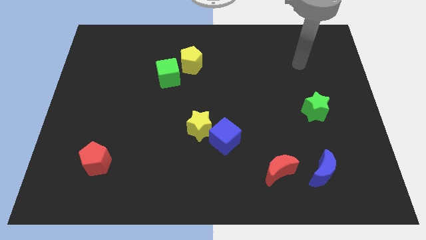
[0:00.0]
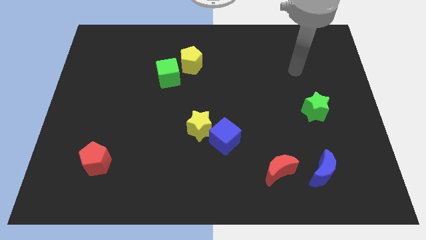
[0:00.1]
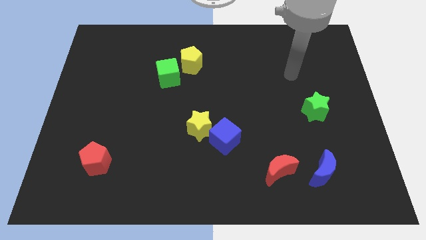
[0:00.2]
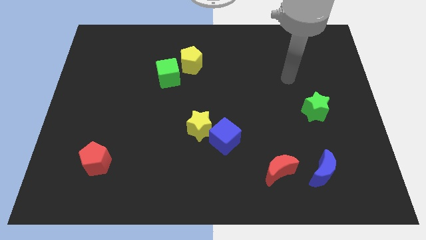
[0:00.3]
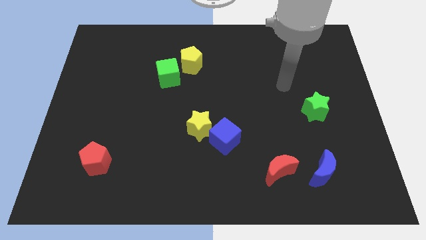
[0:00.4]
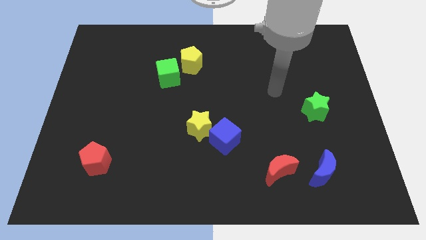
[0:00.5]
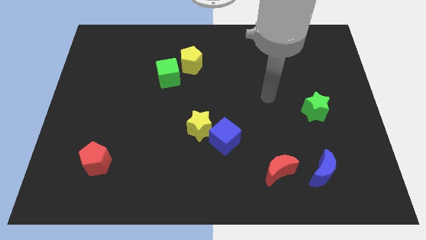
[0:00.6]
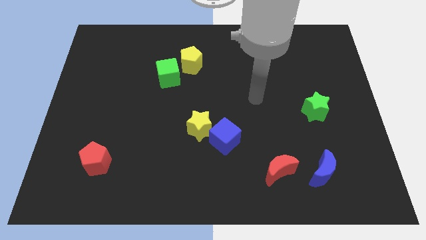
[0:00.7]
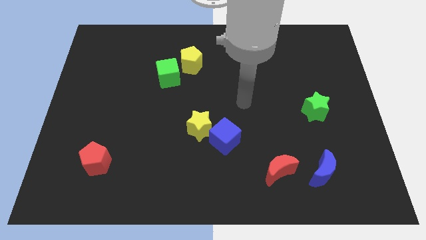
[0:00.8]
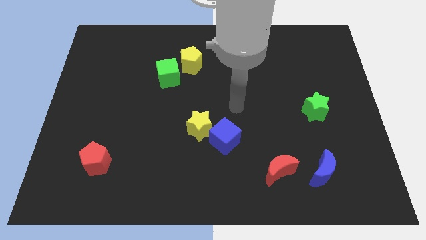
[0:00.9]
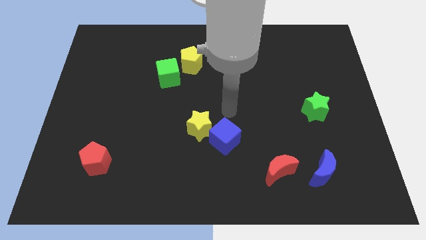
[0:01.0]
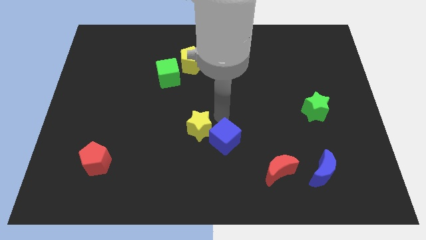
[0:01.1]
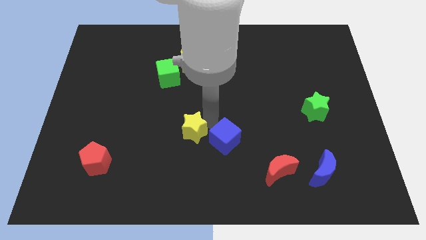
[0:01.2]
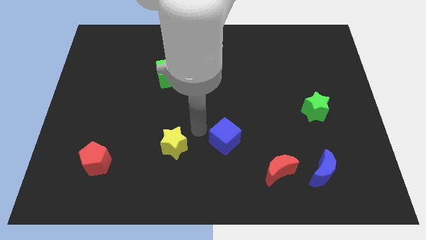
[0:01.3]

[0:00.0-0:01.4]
pull the blue cube apart from the yellow star

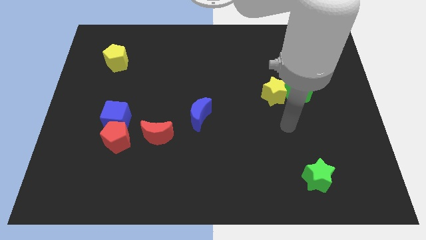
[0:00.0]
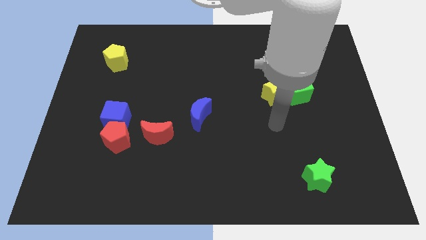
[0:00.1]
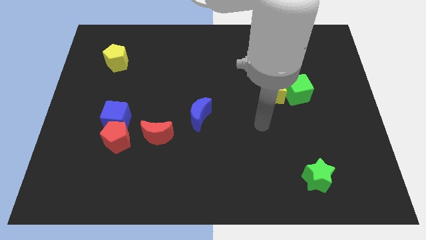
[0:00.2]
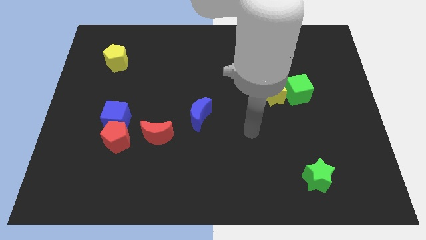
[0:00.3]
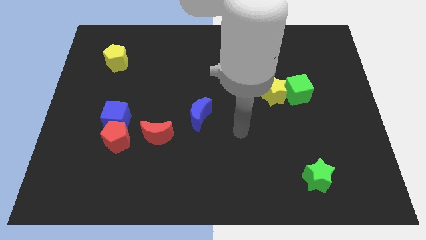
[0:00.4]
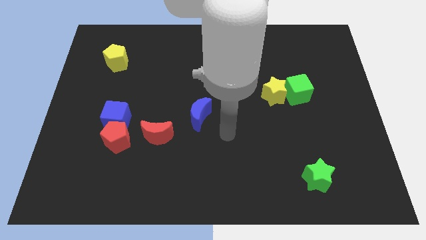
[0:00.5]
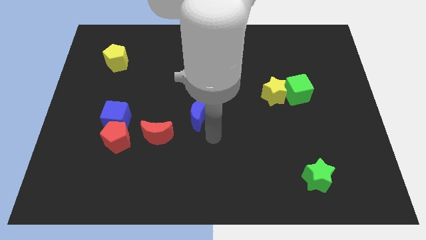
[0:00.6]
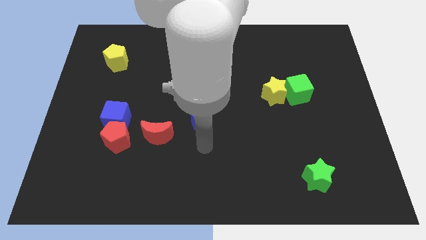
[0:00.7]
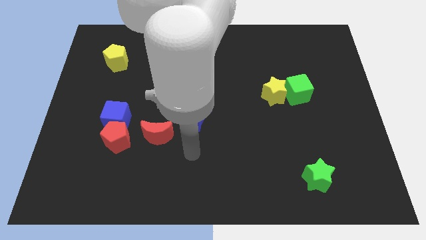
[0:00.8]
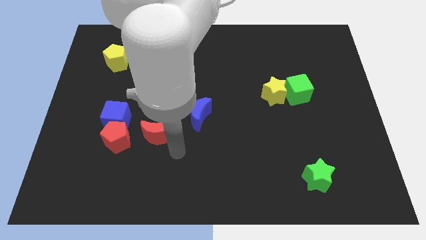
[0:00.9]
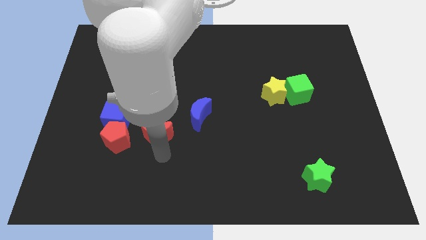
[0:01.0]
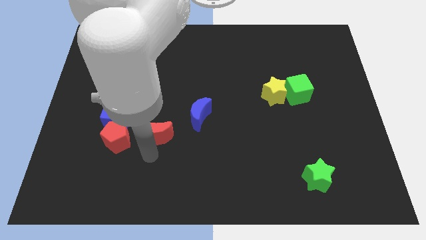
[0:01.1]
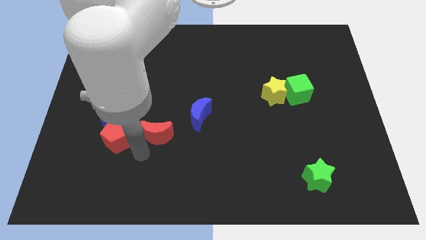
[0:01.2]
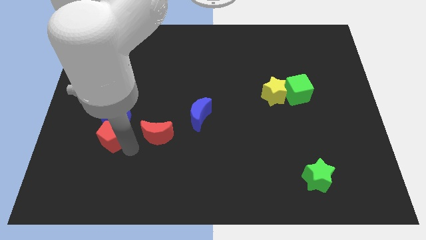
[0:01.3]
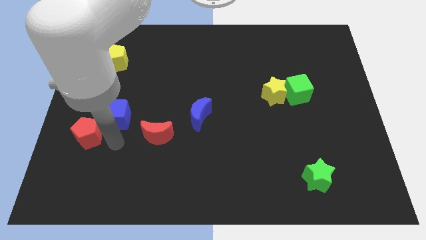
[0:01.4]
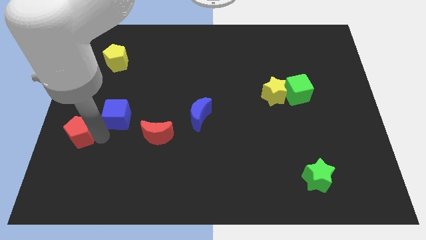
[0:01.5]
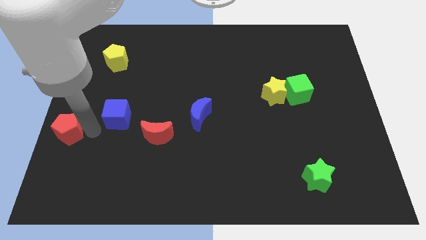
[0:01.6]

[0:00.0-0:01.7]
move the blue cube away from the red pentagon

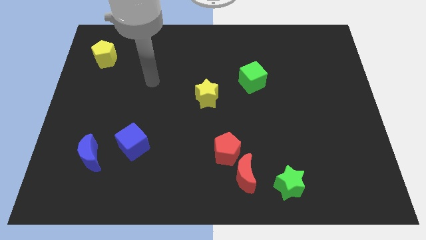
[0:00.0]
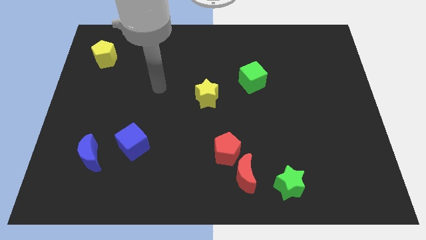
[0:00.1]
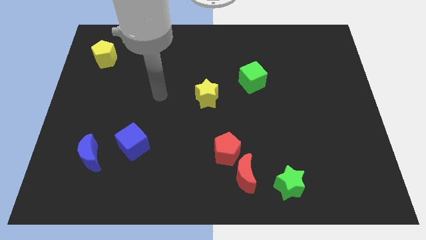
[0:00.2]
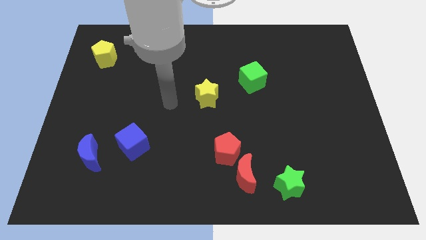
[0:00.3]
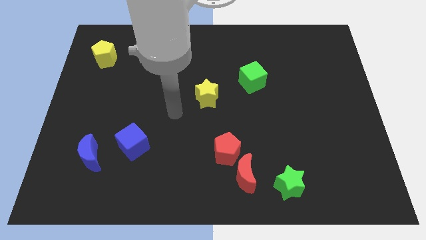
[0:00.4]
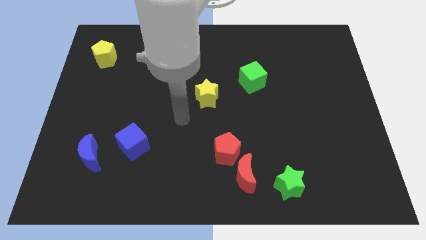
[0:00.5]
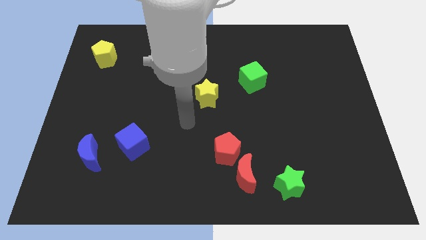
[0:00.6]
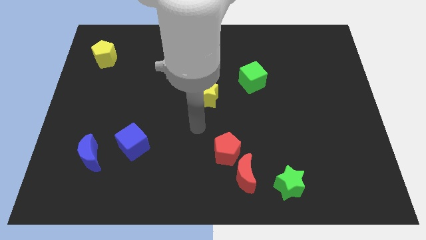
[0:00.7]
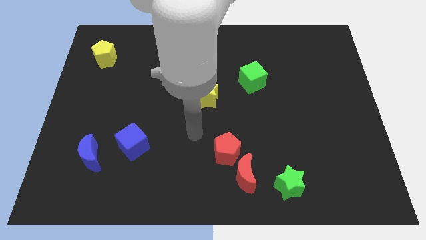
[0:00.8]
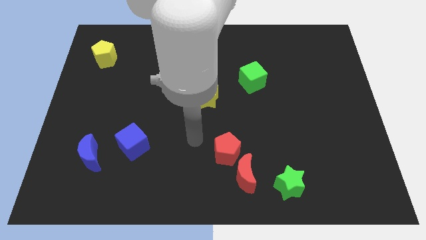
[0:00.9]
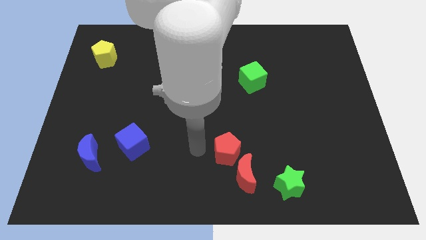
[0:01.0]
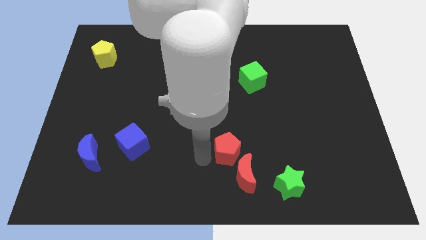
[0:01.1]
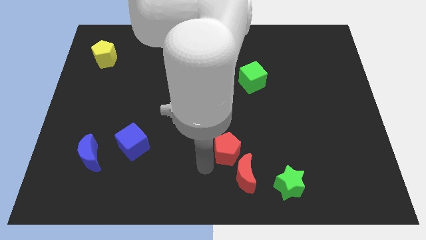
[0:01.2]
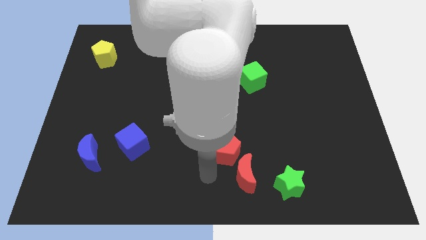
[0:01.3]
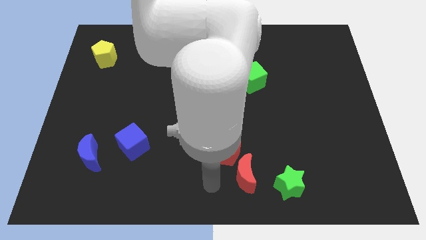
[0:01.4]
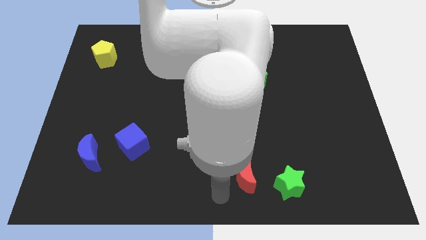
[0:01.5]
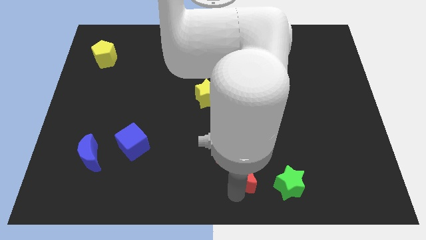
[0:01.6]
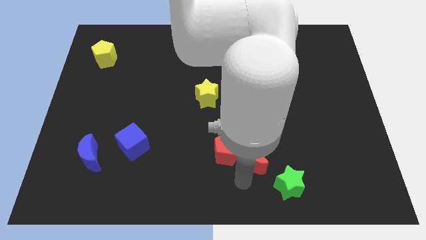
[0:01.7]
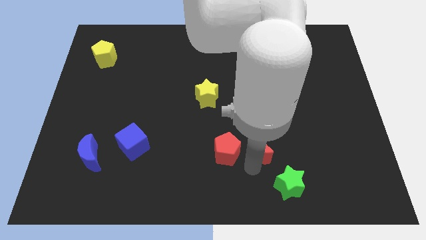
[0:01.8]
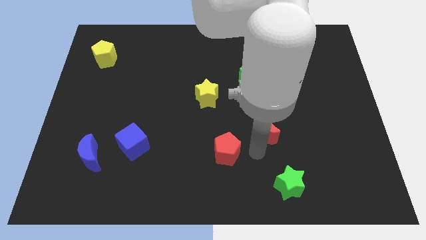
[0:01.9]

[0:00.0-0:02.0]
move the red pentagon away from the red moon

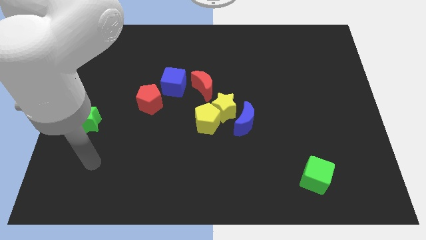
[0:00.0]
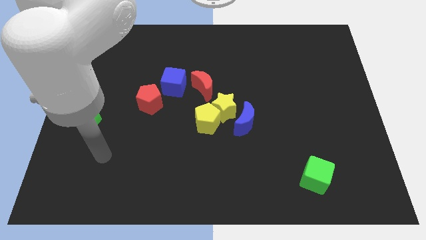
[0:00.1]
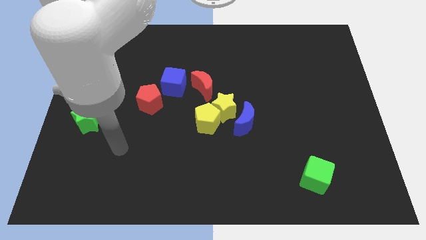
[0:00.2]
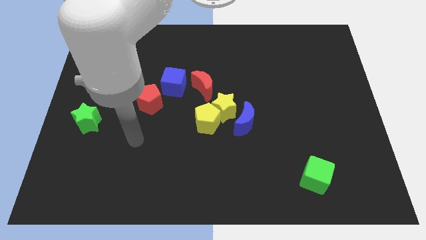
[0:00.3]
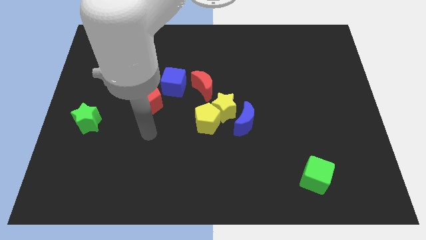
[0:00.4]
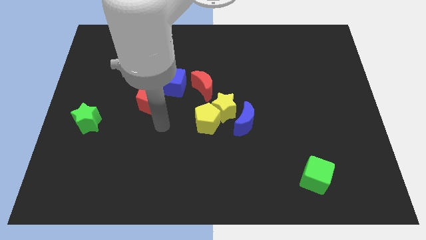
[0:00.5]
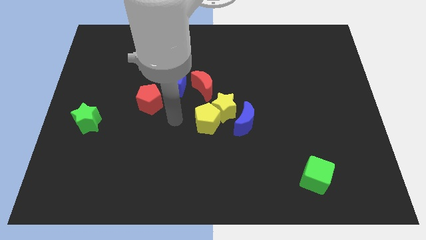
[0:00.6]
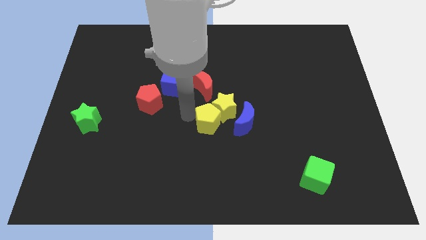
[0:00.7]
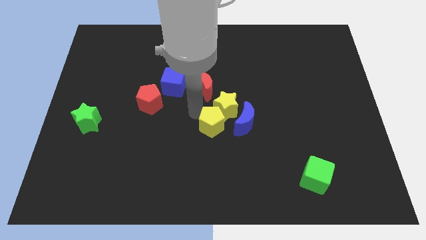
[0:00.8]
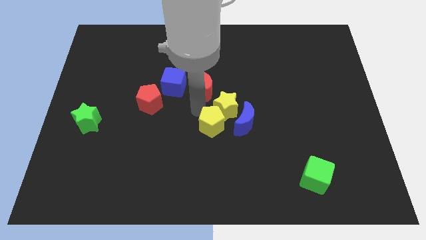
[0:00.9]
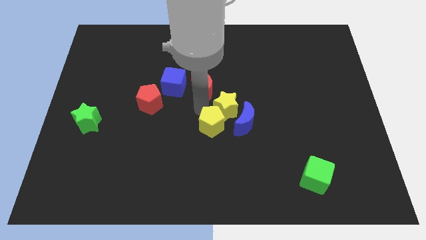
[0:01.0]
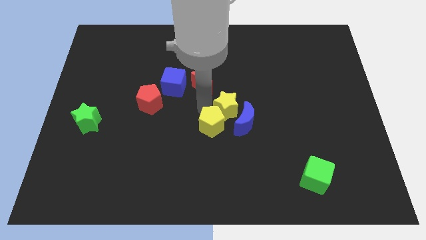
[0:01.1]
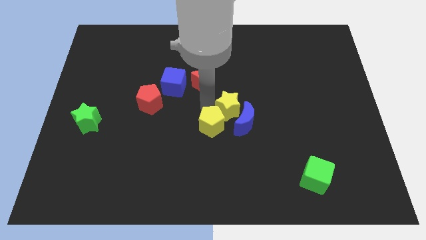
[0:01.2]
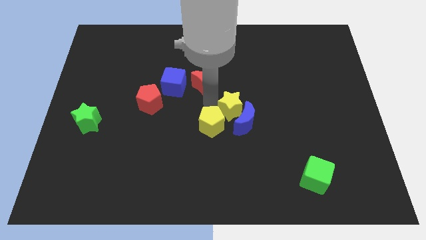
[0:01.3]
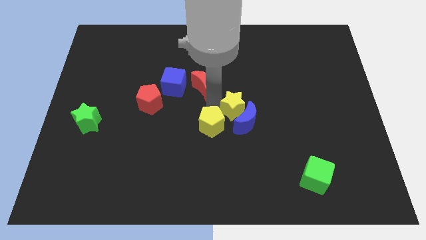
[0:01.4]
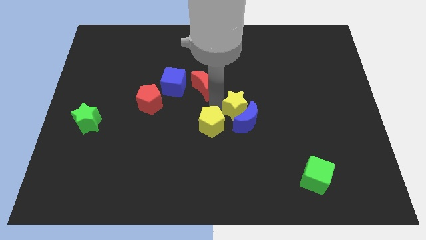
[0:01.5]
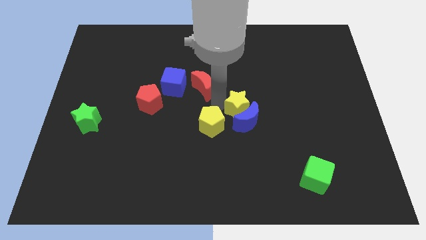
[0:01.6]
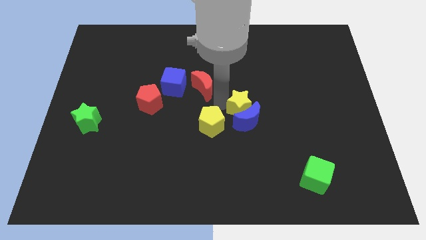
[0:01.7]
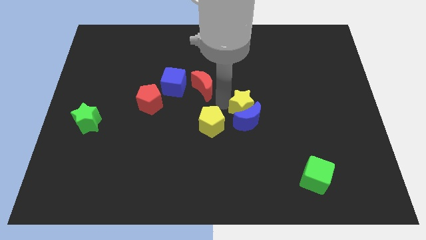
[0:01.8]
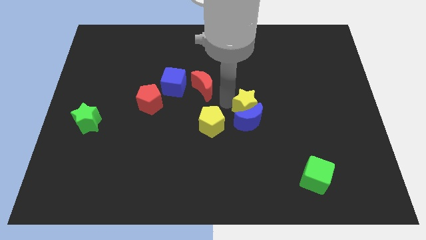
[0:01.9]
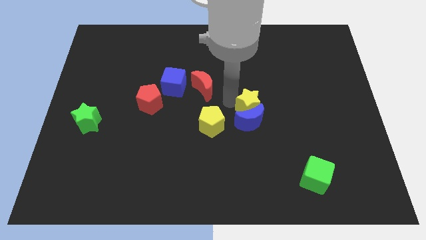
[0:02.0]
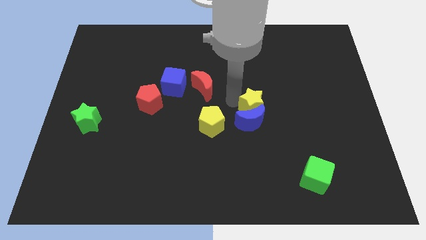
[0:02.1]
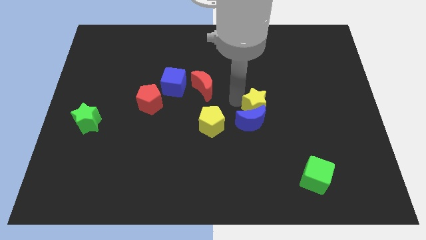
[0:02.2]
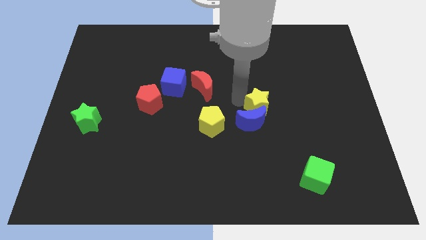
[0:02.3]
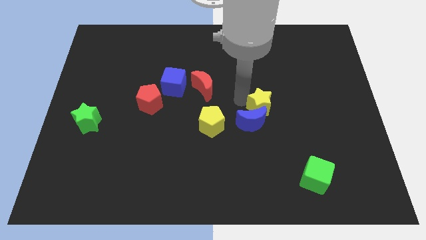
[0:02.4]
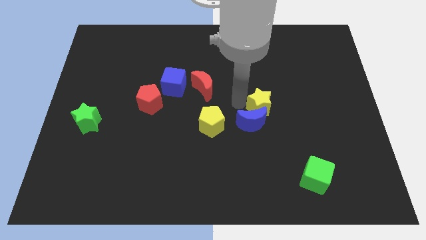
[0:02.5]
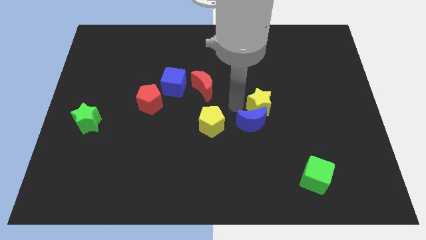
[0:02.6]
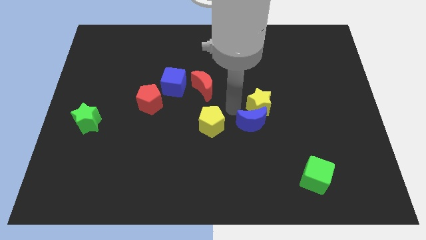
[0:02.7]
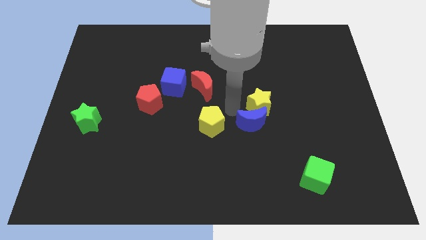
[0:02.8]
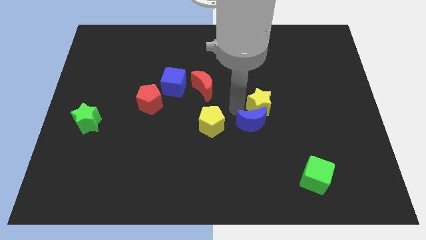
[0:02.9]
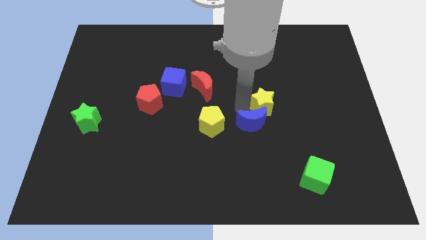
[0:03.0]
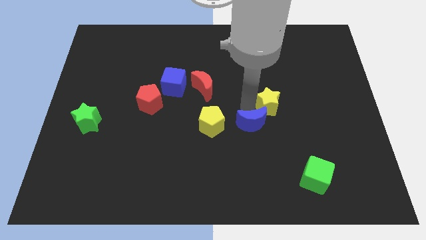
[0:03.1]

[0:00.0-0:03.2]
pull the yellow star apart from the group of blocks

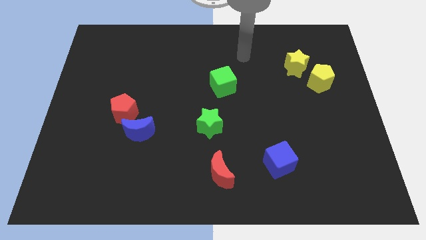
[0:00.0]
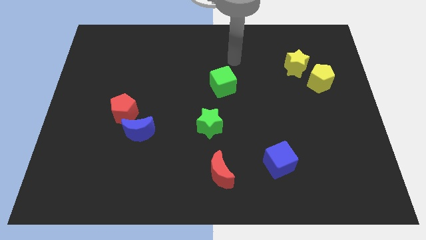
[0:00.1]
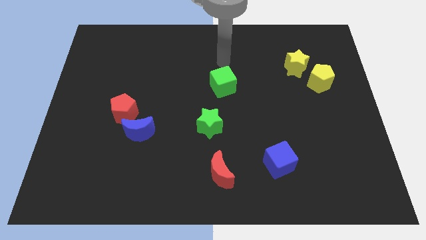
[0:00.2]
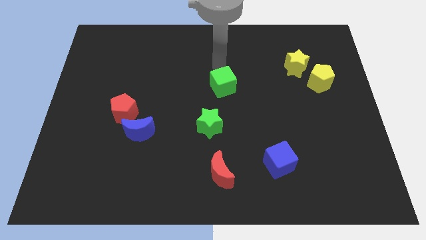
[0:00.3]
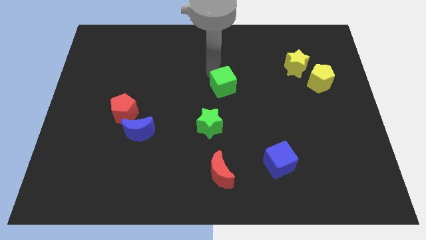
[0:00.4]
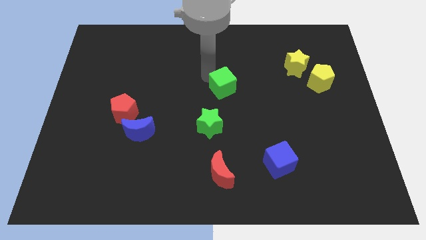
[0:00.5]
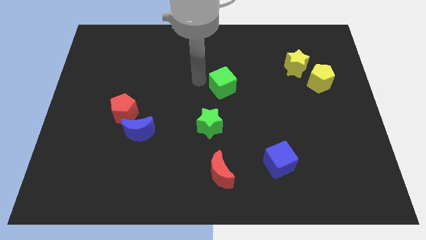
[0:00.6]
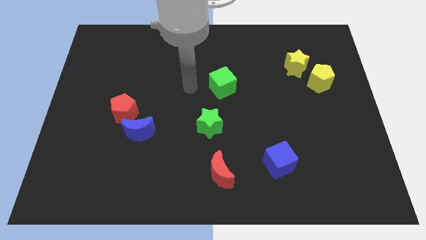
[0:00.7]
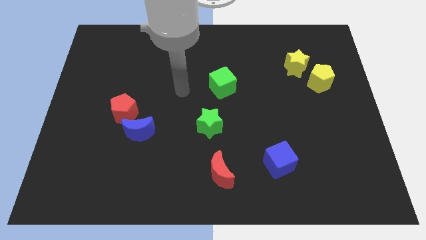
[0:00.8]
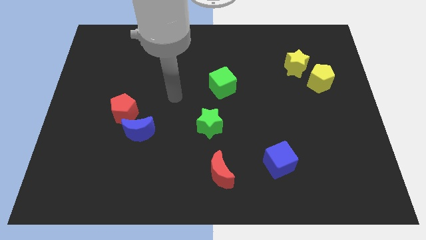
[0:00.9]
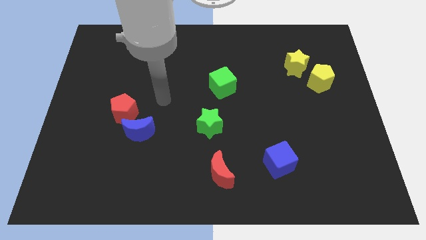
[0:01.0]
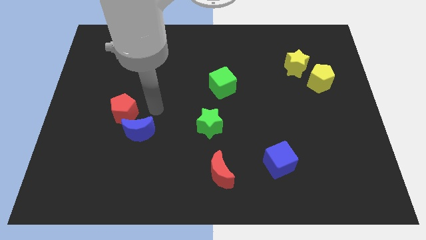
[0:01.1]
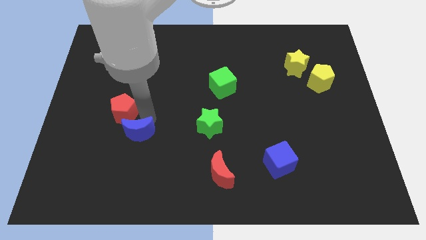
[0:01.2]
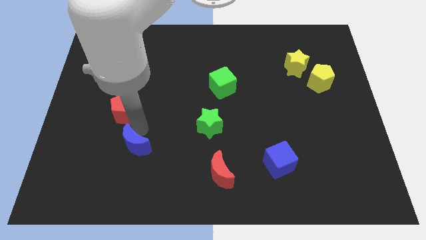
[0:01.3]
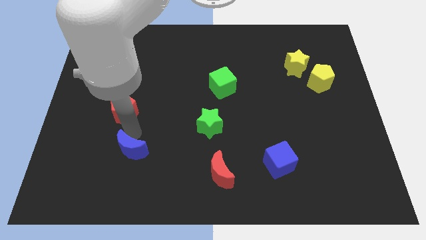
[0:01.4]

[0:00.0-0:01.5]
separate the red pentagon from the blue moon
